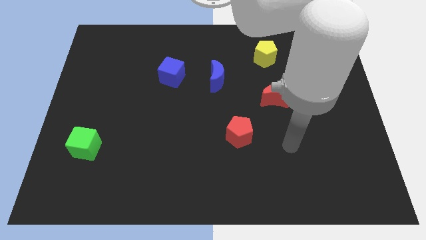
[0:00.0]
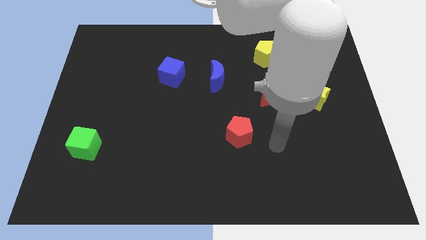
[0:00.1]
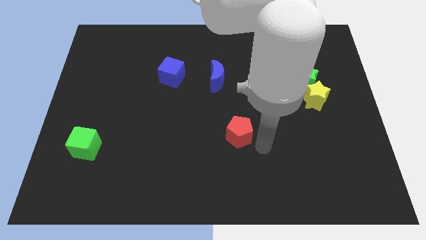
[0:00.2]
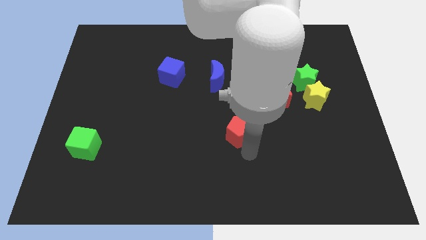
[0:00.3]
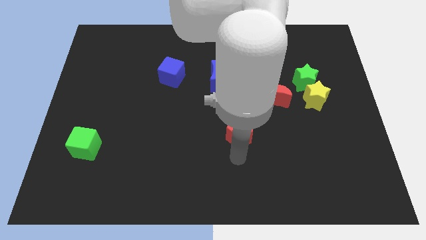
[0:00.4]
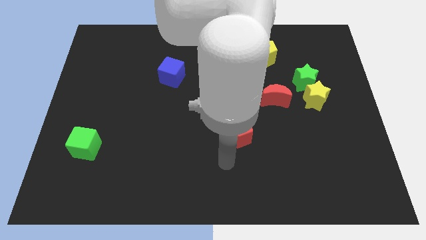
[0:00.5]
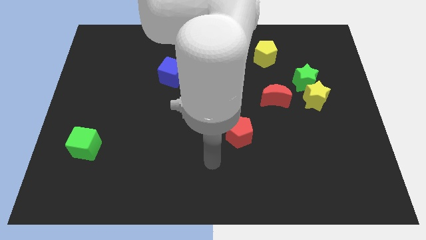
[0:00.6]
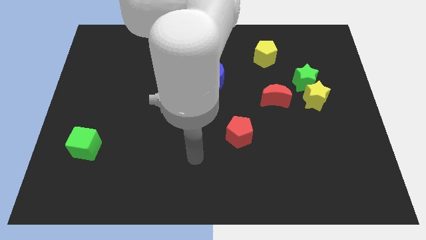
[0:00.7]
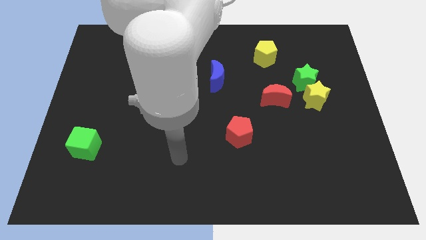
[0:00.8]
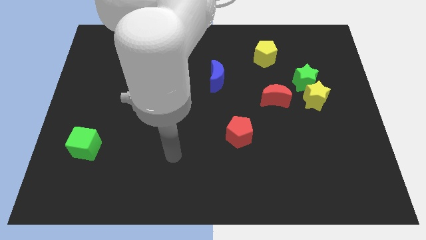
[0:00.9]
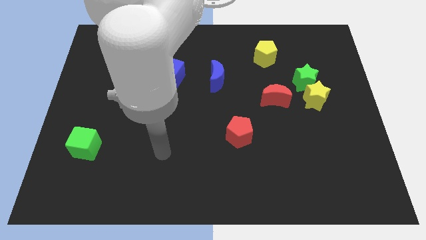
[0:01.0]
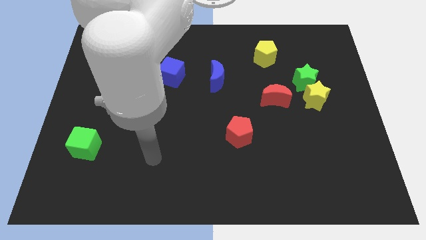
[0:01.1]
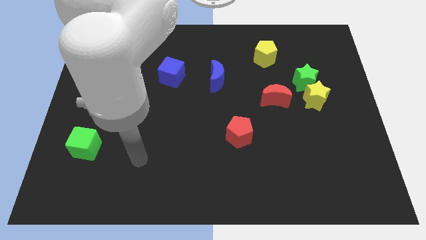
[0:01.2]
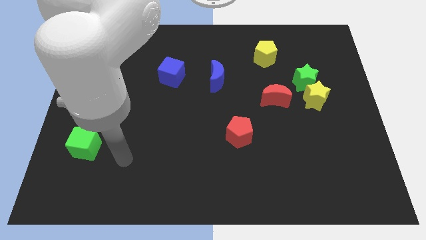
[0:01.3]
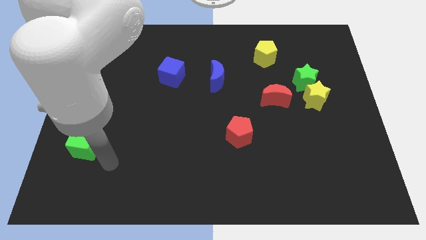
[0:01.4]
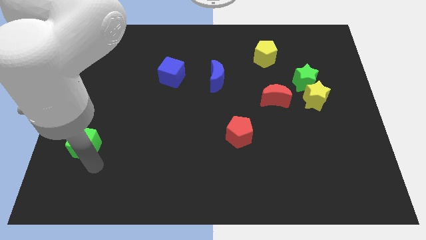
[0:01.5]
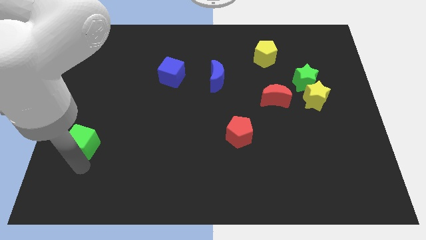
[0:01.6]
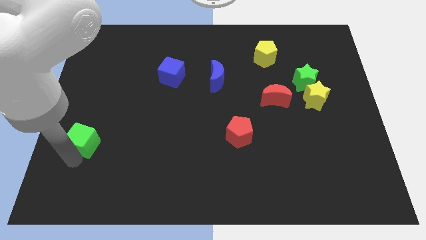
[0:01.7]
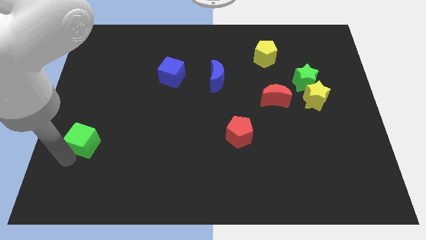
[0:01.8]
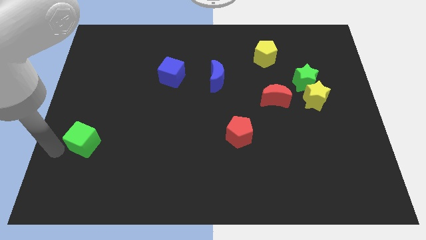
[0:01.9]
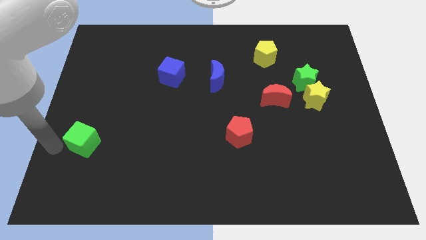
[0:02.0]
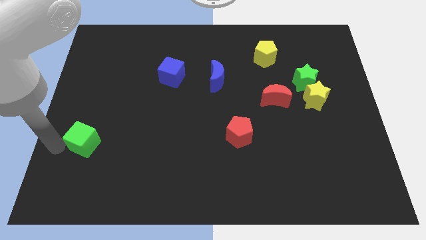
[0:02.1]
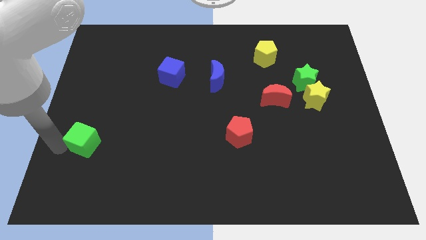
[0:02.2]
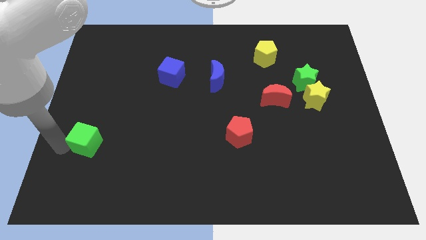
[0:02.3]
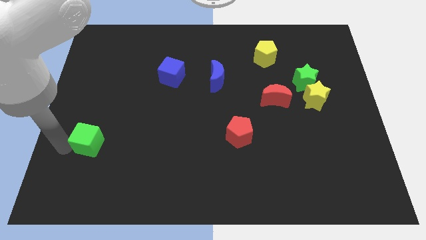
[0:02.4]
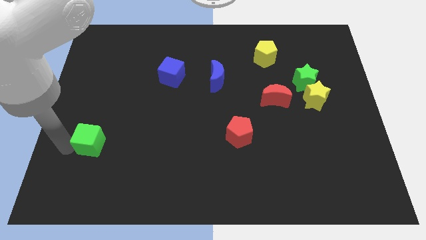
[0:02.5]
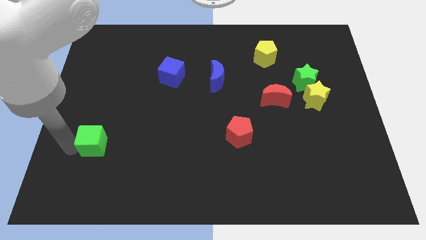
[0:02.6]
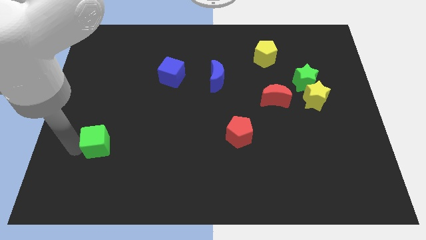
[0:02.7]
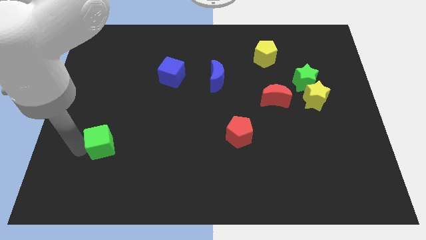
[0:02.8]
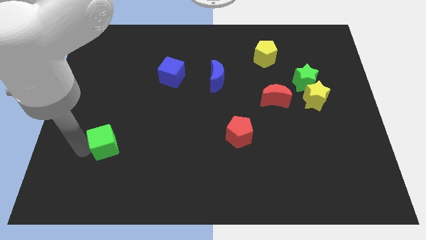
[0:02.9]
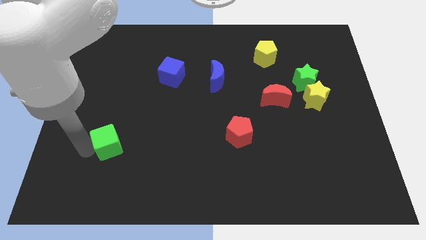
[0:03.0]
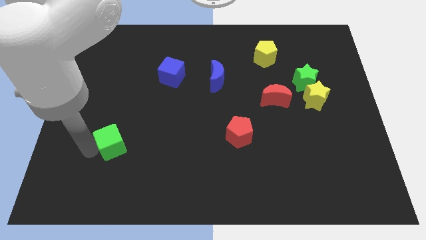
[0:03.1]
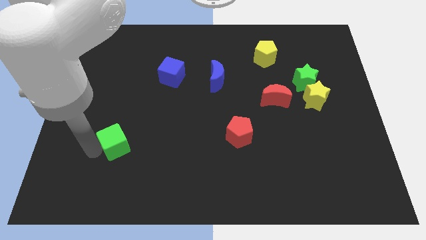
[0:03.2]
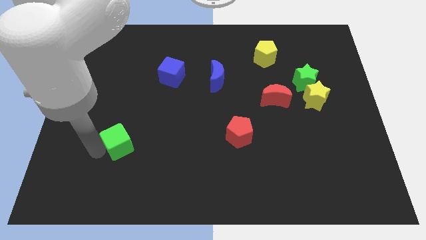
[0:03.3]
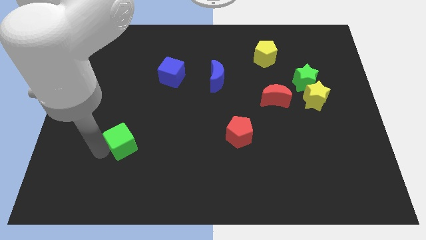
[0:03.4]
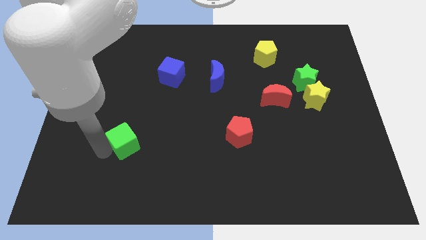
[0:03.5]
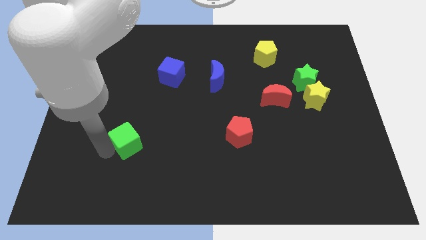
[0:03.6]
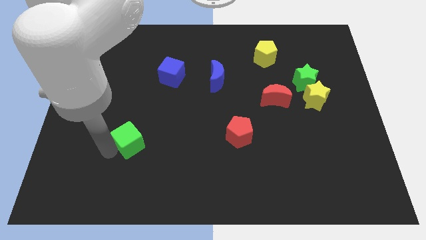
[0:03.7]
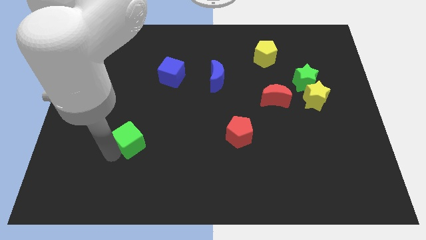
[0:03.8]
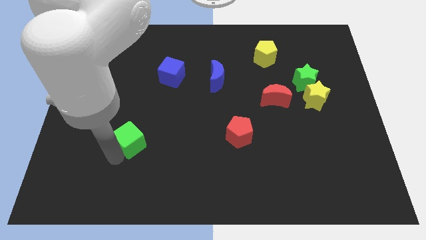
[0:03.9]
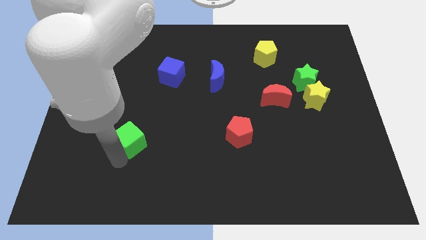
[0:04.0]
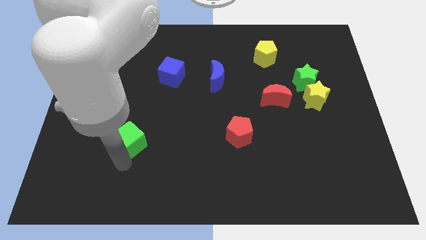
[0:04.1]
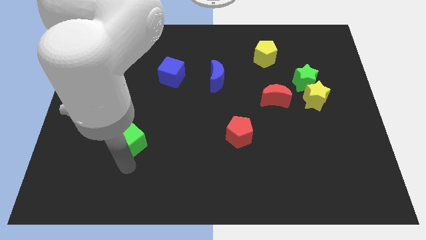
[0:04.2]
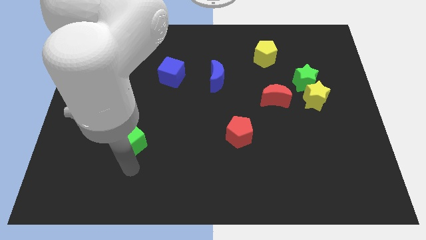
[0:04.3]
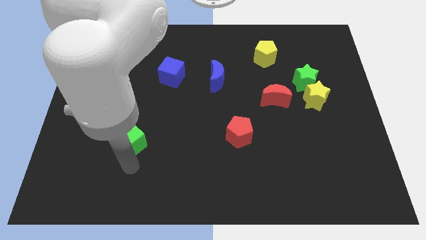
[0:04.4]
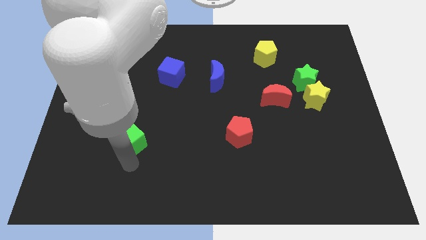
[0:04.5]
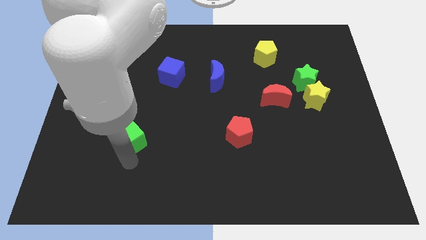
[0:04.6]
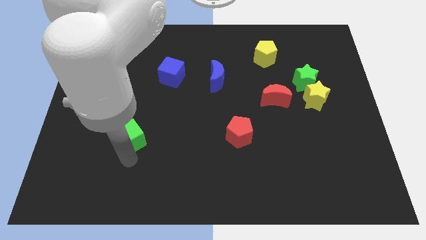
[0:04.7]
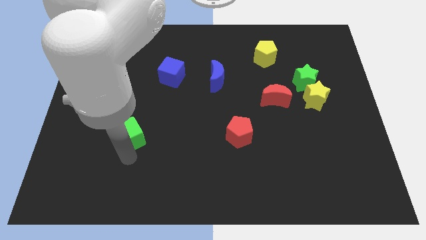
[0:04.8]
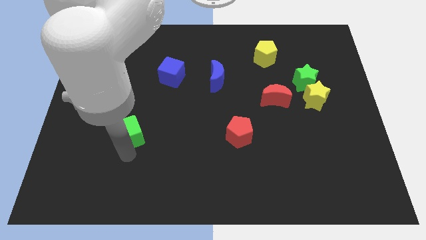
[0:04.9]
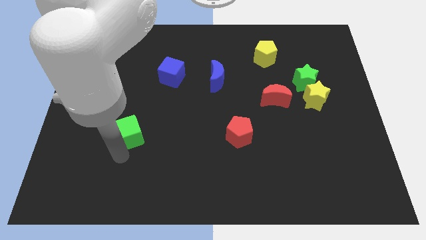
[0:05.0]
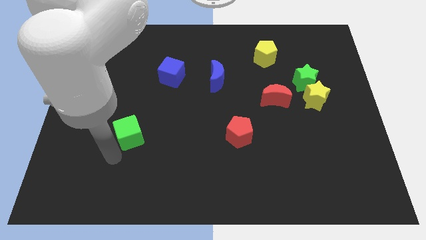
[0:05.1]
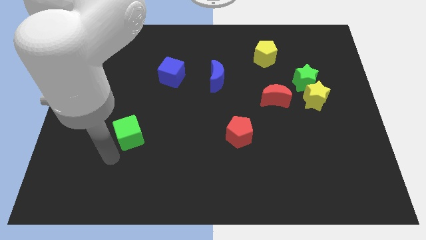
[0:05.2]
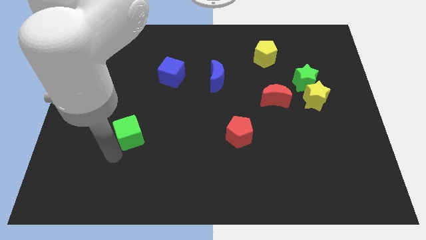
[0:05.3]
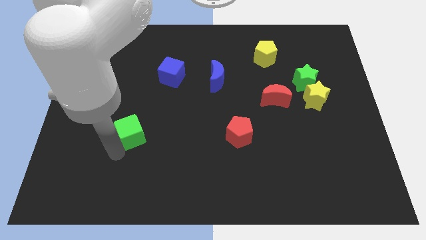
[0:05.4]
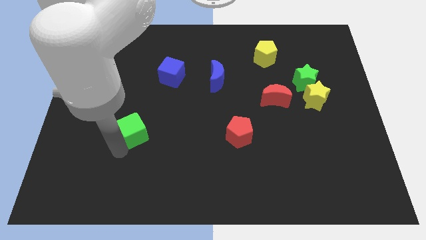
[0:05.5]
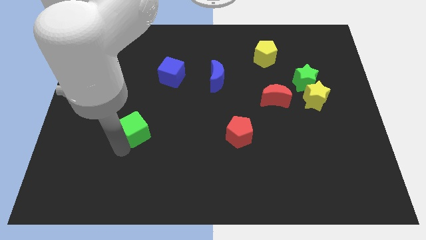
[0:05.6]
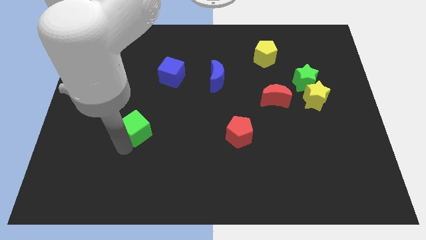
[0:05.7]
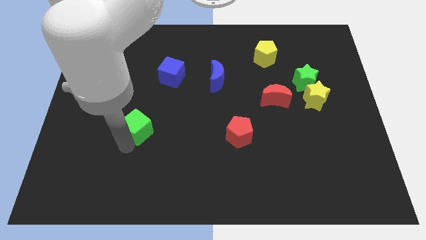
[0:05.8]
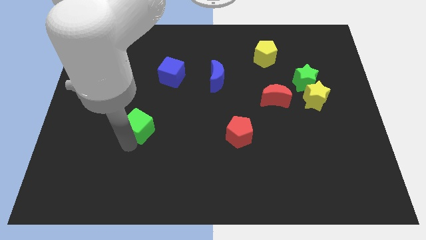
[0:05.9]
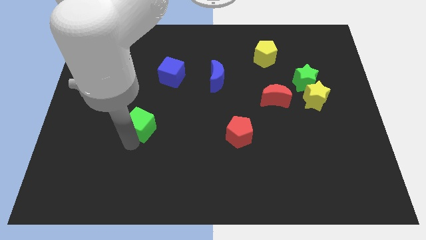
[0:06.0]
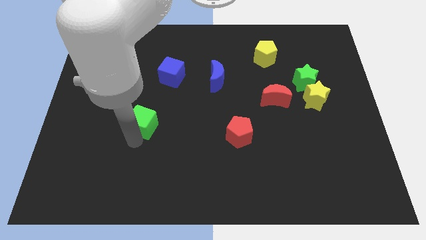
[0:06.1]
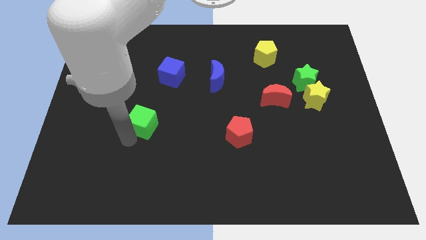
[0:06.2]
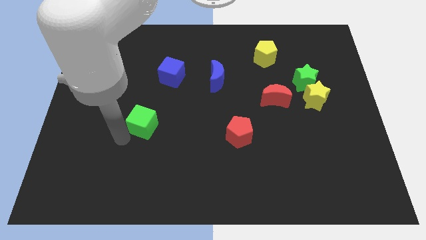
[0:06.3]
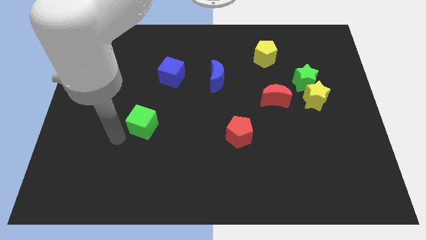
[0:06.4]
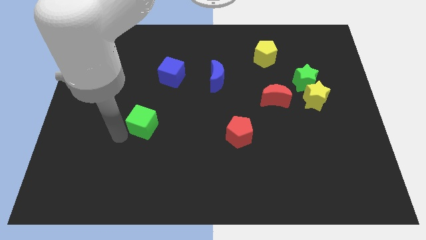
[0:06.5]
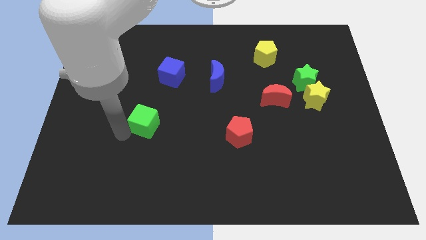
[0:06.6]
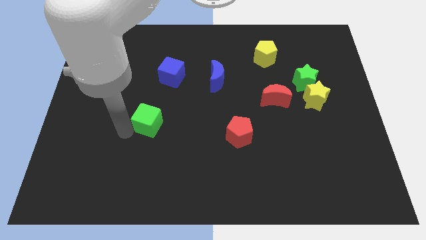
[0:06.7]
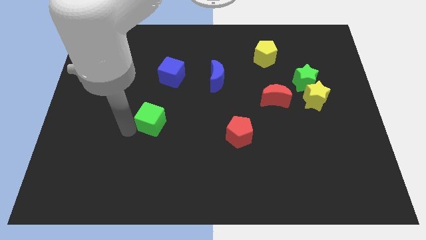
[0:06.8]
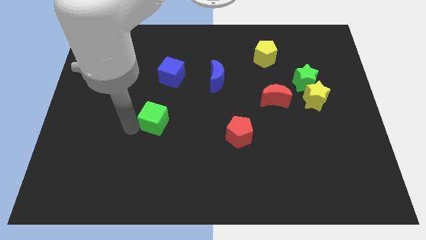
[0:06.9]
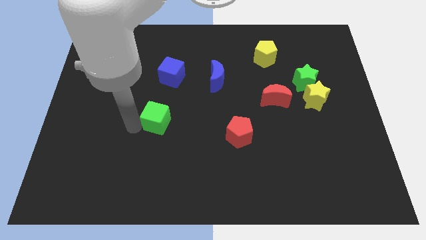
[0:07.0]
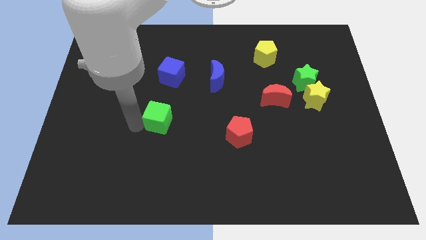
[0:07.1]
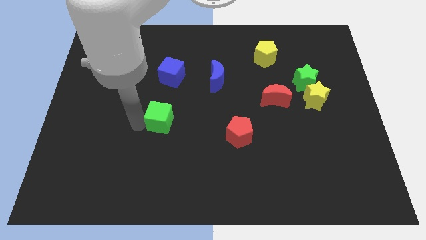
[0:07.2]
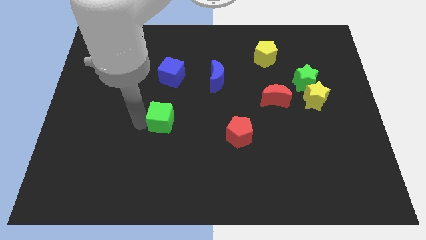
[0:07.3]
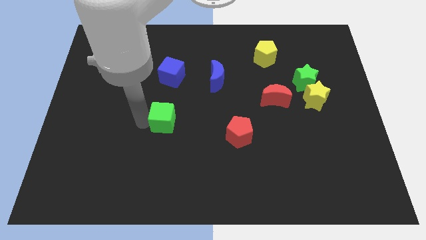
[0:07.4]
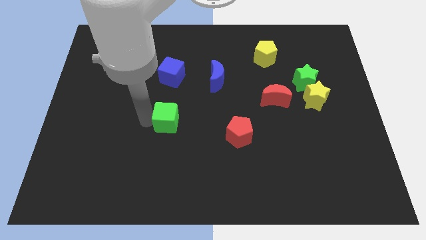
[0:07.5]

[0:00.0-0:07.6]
slide the green cube to the center of the board
